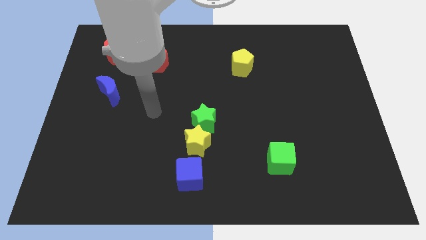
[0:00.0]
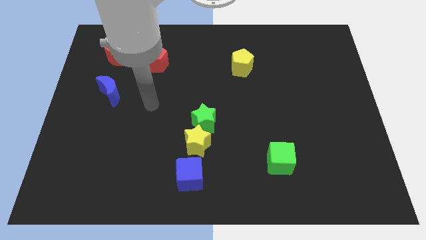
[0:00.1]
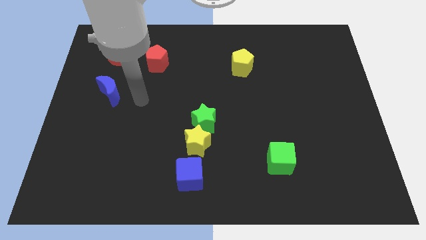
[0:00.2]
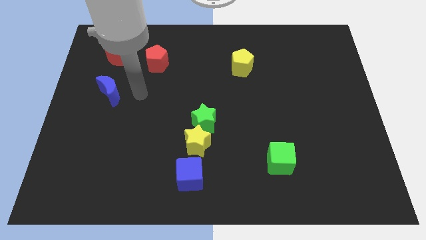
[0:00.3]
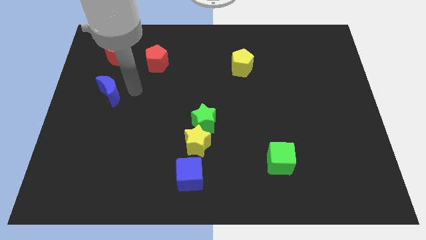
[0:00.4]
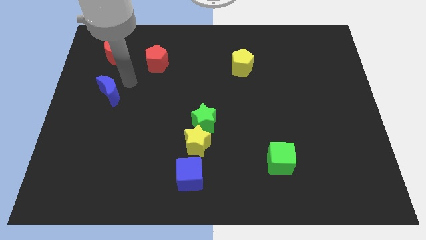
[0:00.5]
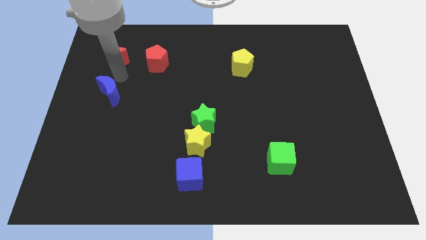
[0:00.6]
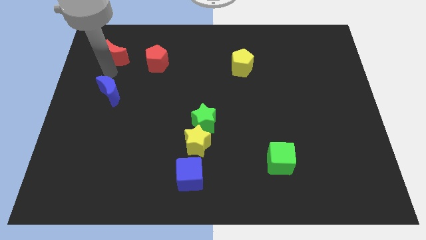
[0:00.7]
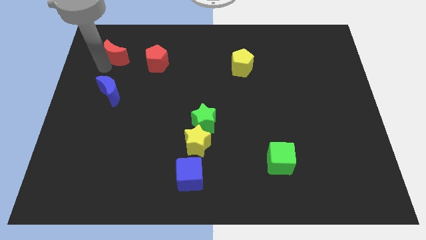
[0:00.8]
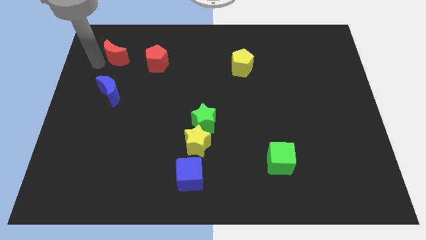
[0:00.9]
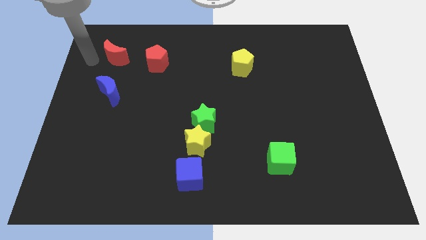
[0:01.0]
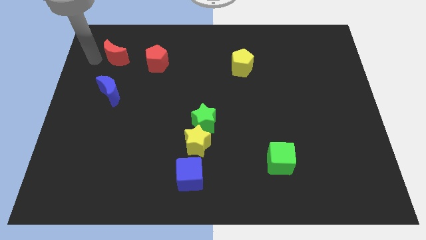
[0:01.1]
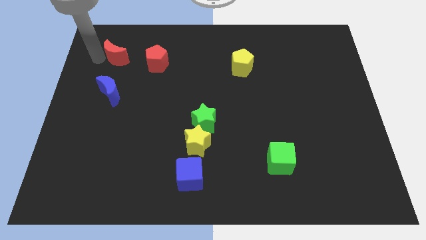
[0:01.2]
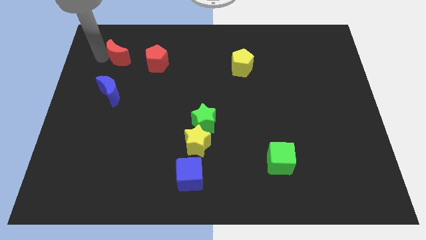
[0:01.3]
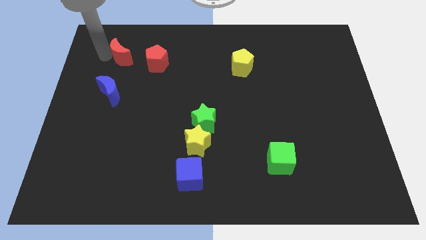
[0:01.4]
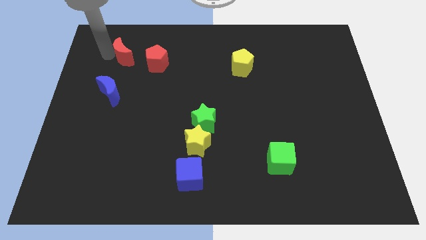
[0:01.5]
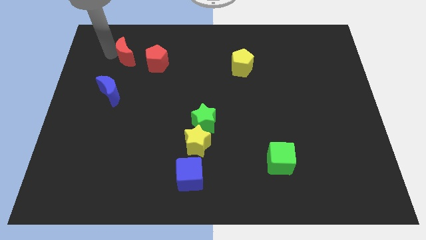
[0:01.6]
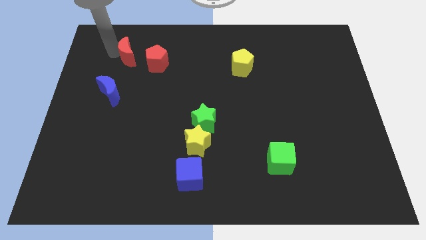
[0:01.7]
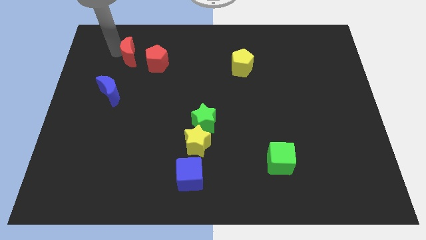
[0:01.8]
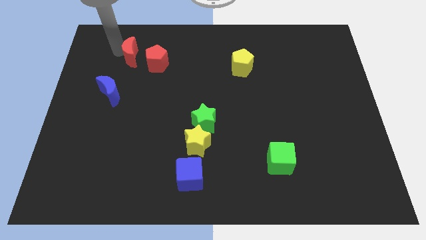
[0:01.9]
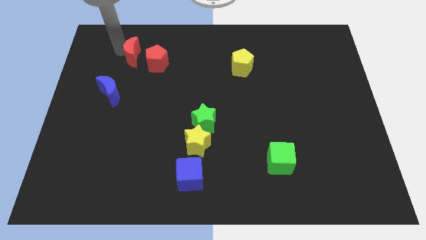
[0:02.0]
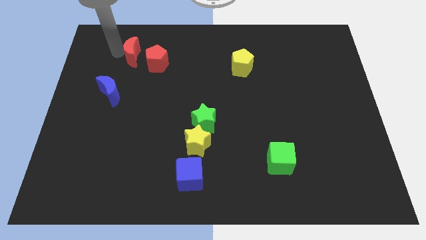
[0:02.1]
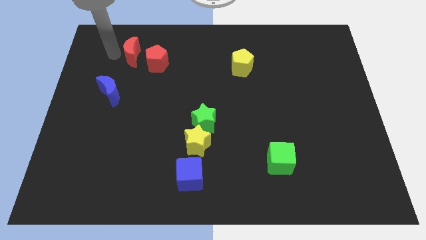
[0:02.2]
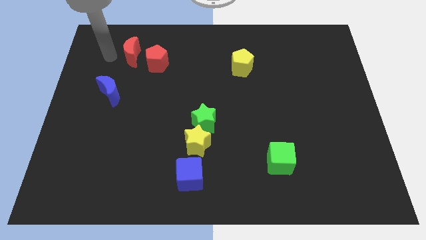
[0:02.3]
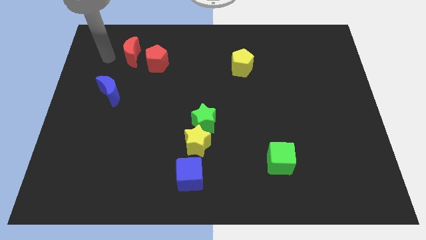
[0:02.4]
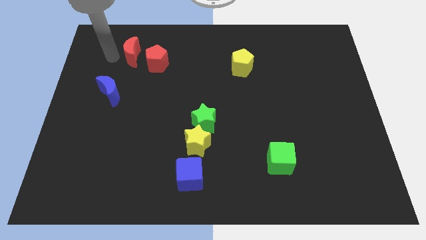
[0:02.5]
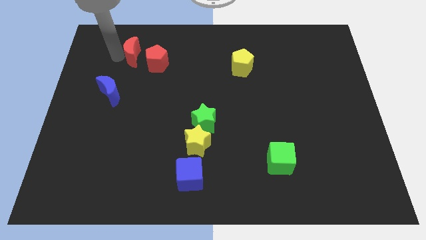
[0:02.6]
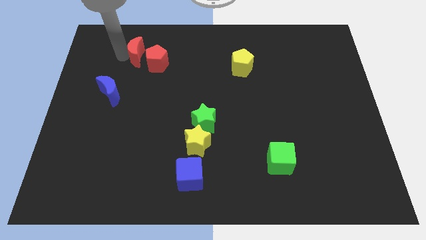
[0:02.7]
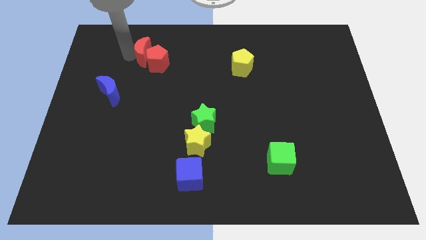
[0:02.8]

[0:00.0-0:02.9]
slide the red moon right a little bit

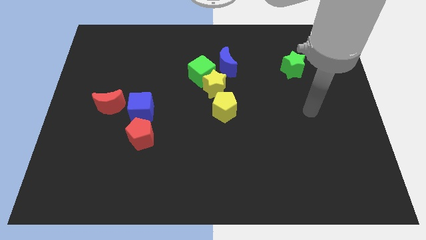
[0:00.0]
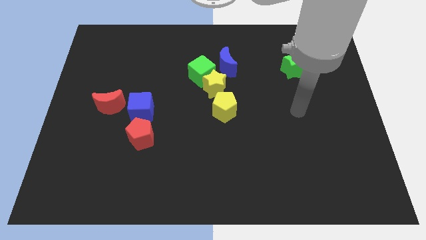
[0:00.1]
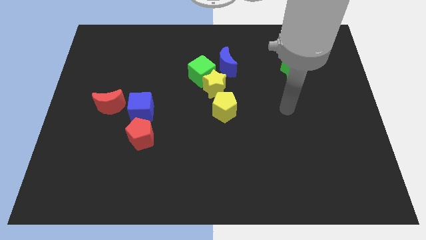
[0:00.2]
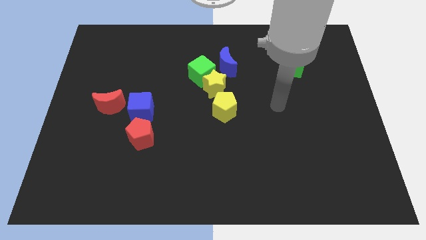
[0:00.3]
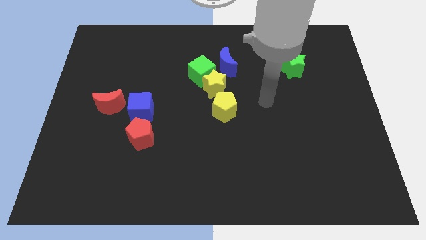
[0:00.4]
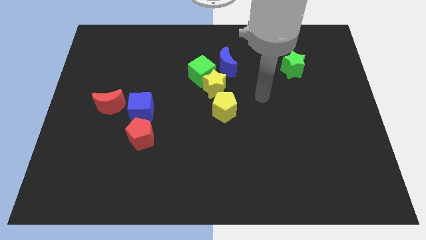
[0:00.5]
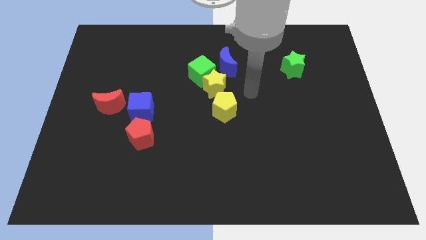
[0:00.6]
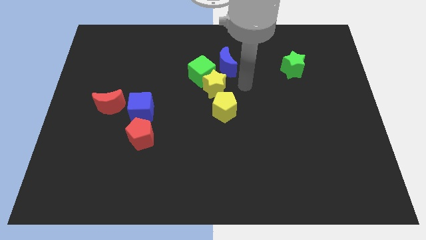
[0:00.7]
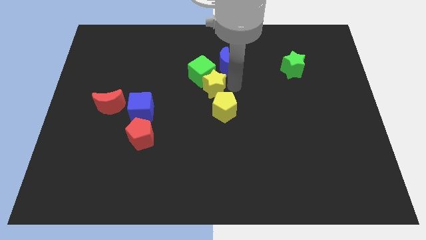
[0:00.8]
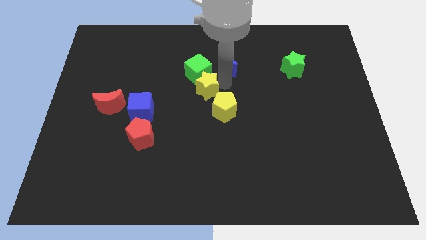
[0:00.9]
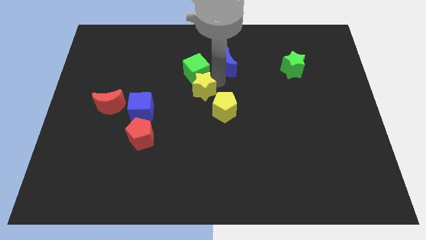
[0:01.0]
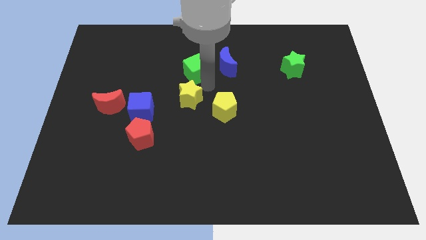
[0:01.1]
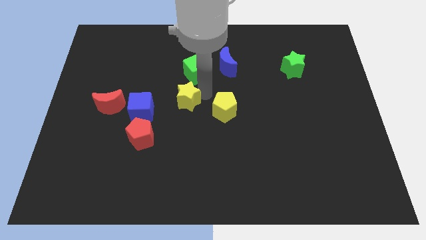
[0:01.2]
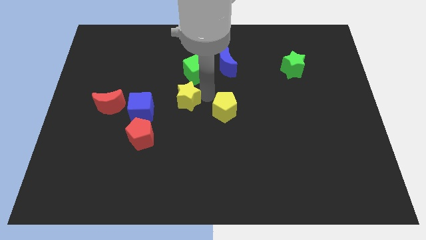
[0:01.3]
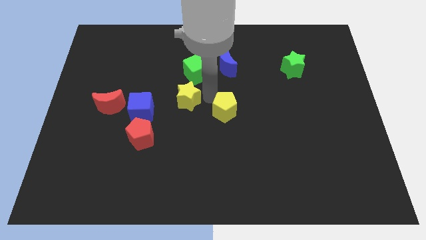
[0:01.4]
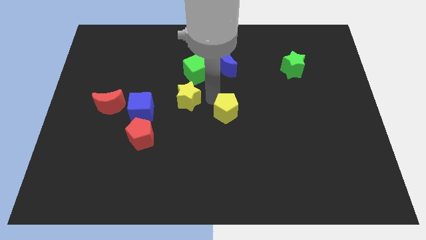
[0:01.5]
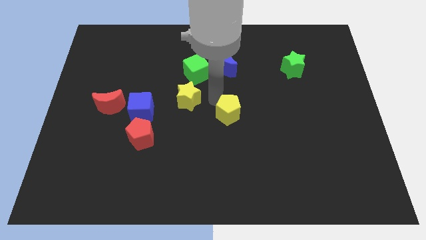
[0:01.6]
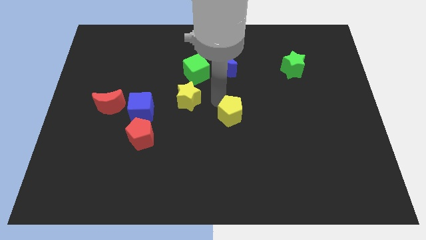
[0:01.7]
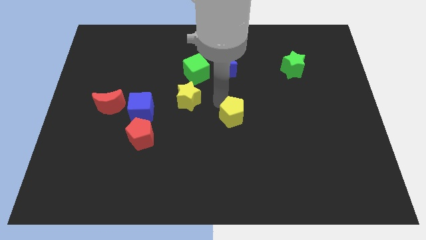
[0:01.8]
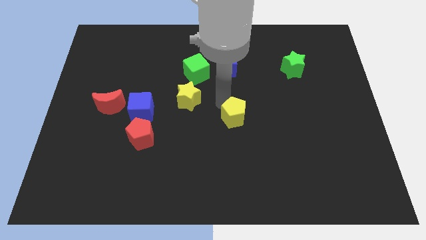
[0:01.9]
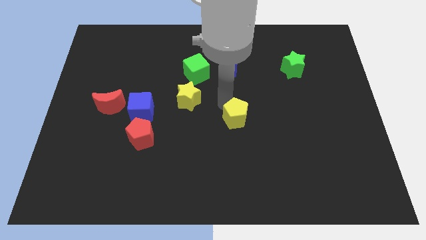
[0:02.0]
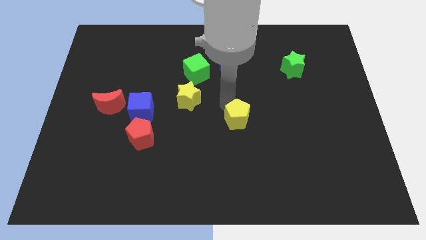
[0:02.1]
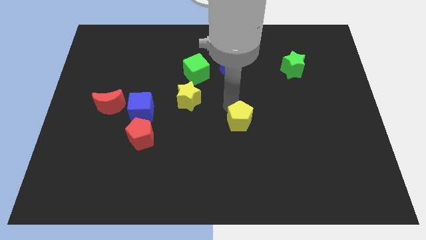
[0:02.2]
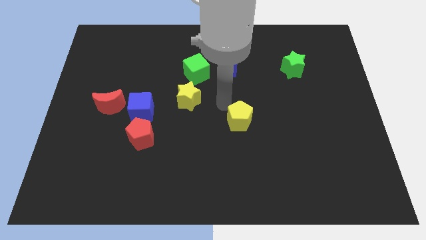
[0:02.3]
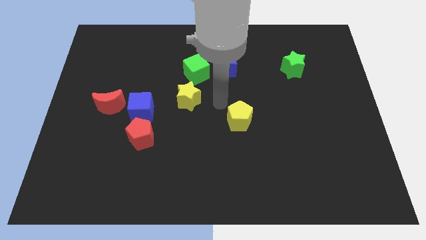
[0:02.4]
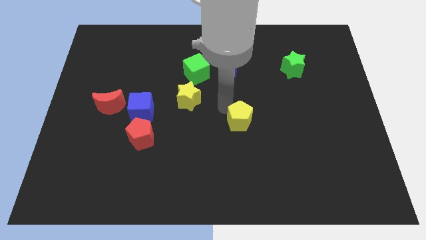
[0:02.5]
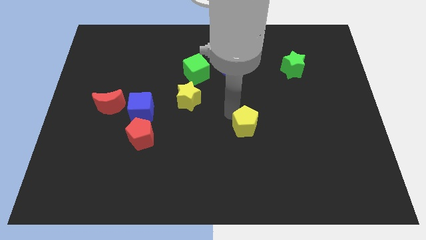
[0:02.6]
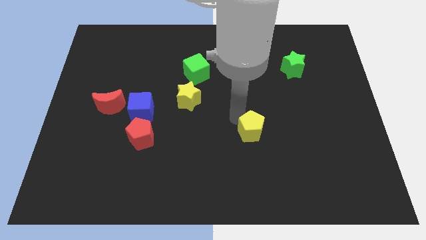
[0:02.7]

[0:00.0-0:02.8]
push the yellow pentagon a little bit diagonally down and right

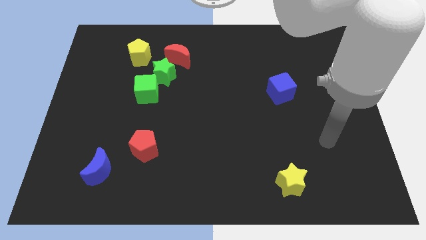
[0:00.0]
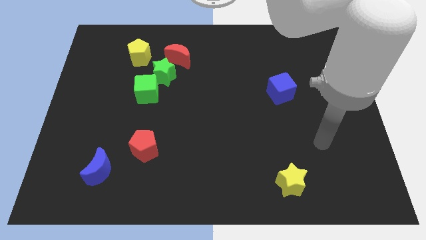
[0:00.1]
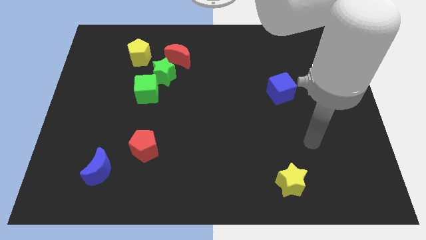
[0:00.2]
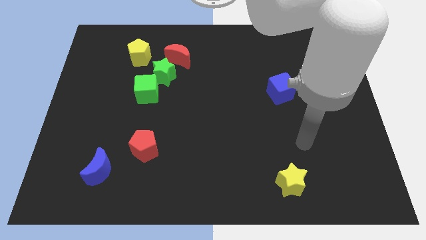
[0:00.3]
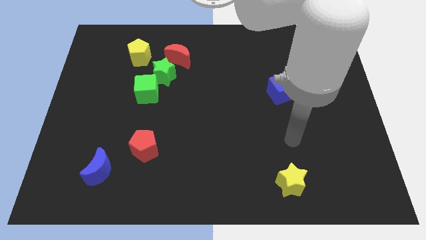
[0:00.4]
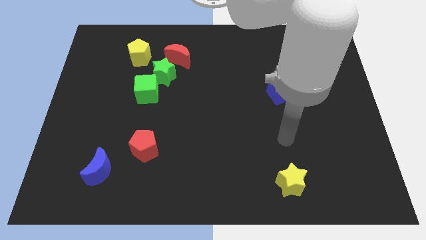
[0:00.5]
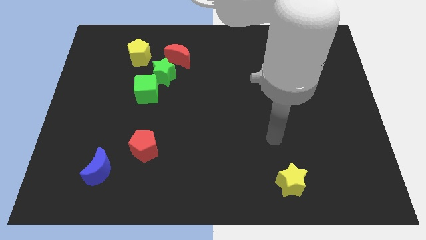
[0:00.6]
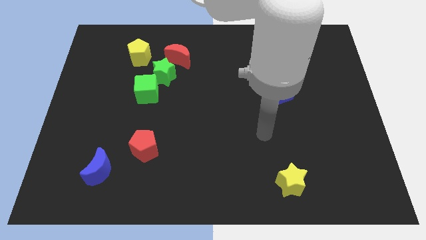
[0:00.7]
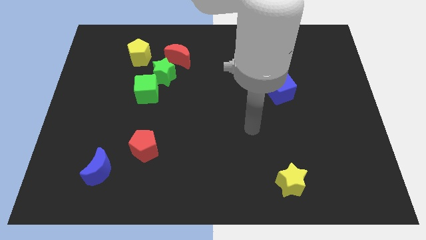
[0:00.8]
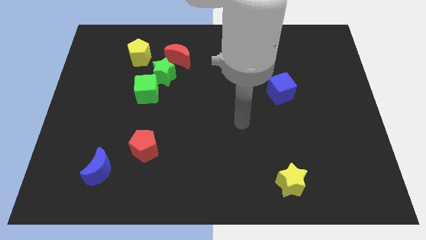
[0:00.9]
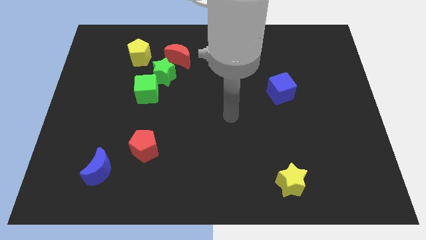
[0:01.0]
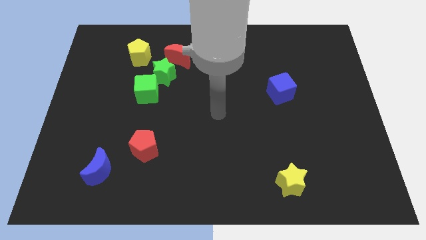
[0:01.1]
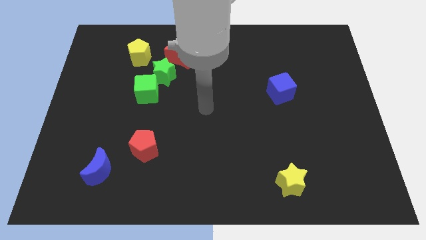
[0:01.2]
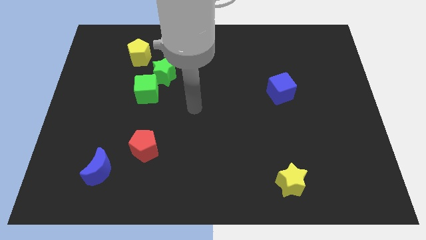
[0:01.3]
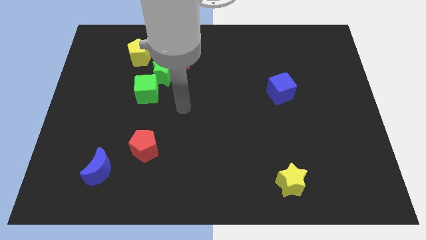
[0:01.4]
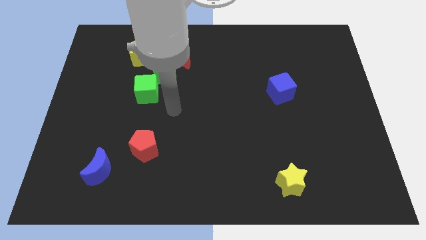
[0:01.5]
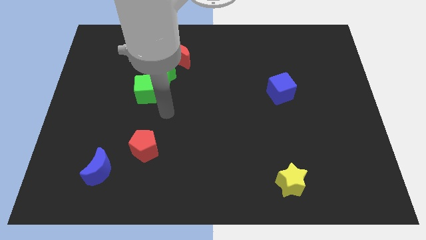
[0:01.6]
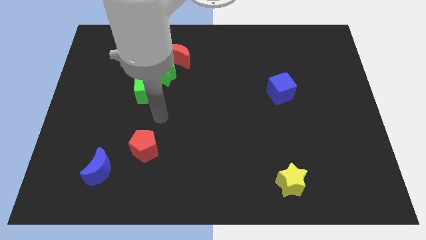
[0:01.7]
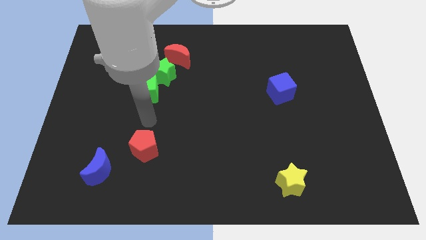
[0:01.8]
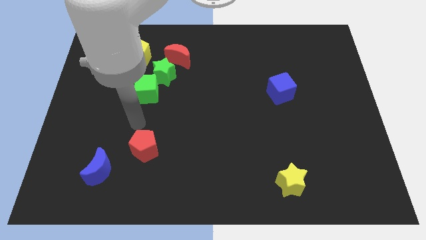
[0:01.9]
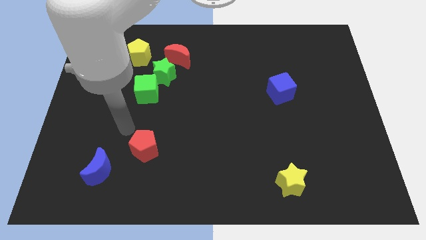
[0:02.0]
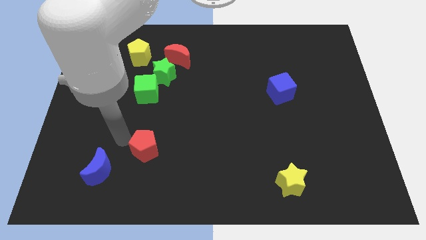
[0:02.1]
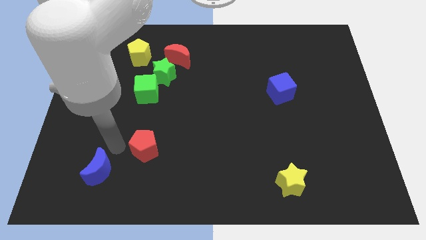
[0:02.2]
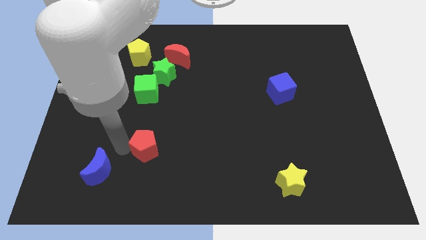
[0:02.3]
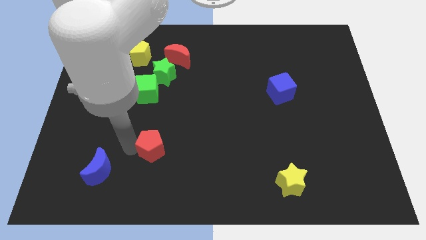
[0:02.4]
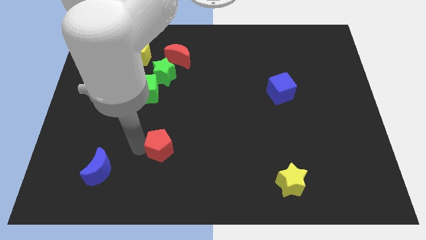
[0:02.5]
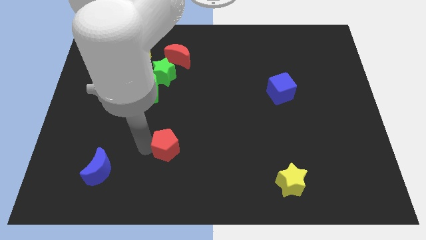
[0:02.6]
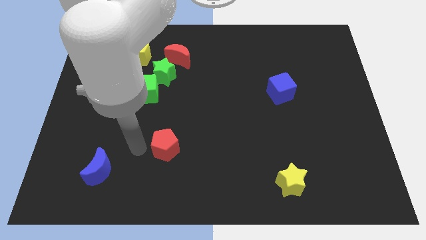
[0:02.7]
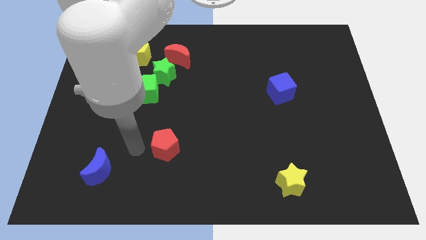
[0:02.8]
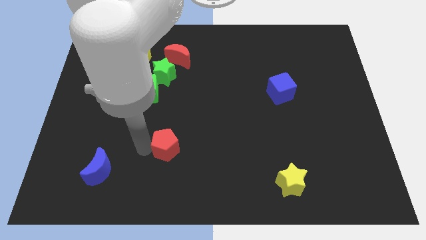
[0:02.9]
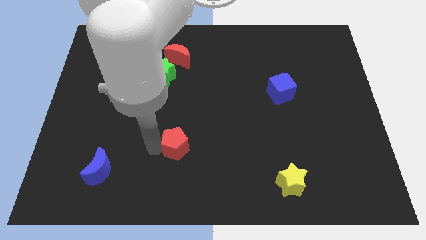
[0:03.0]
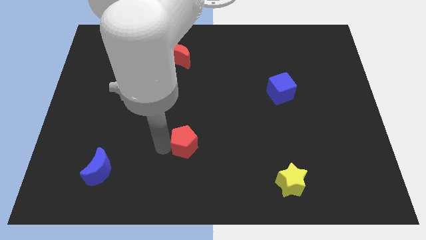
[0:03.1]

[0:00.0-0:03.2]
move the red pentagon to the right a little
